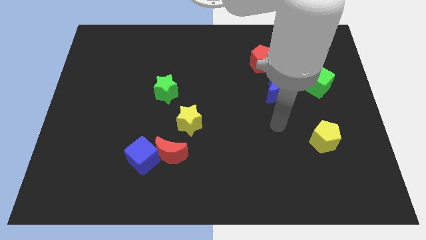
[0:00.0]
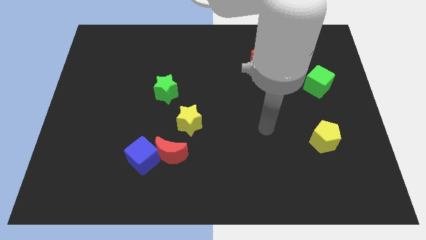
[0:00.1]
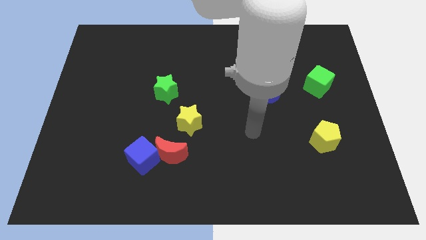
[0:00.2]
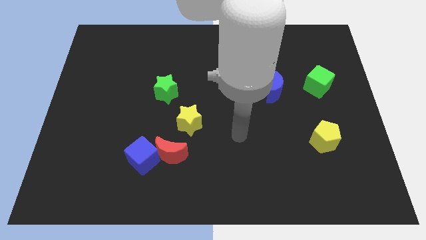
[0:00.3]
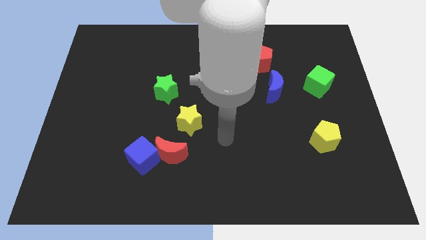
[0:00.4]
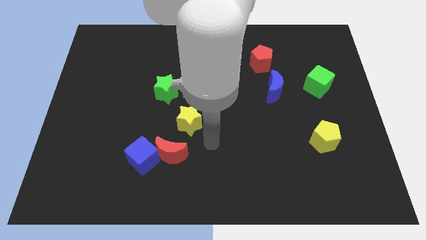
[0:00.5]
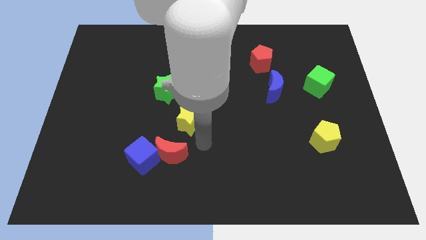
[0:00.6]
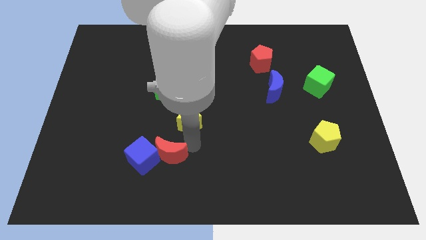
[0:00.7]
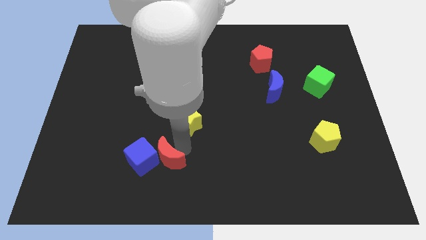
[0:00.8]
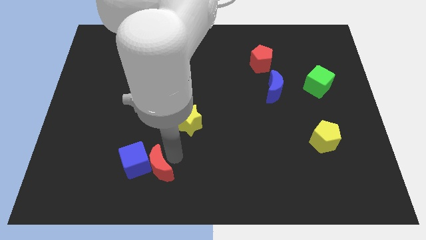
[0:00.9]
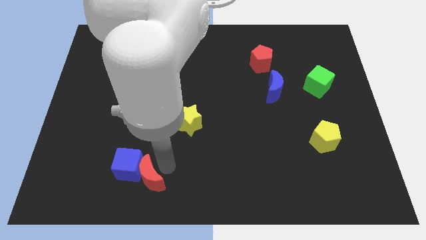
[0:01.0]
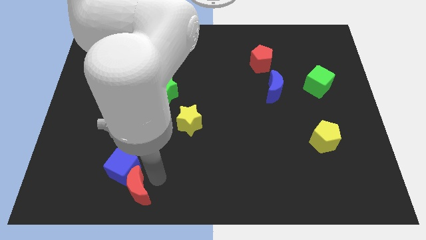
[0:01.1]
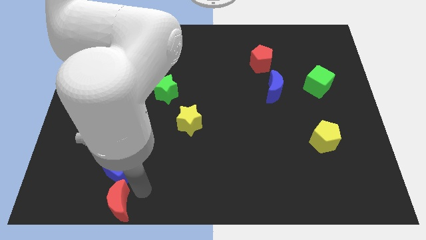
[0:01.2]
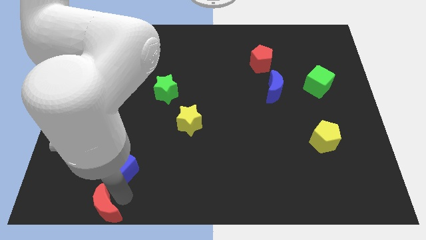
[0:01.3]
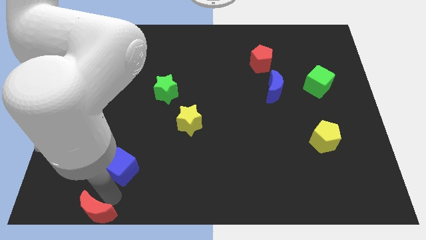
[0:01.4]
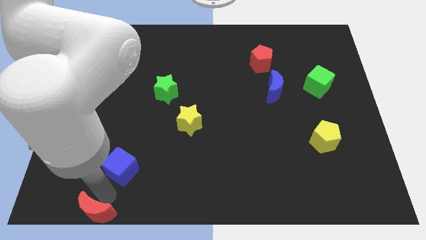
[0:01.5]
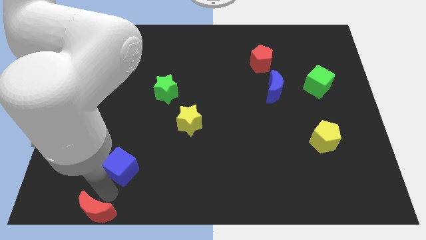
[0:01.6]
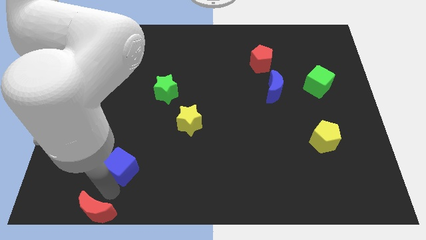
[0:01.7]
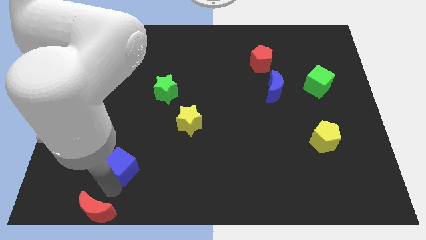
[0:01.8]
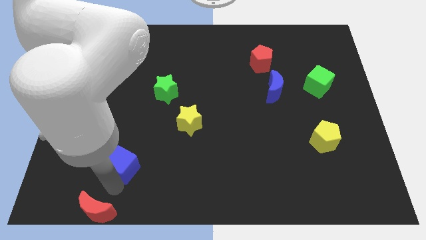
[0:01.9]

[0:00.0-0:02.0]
pull the blue cube apart from the red moon

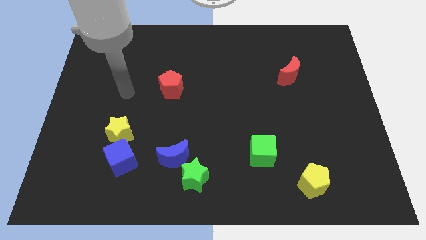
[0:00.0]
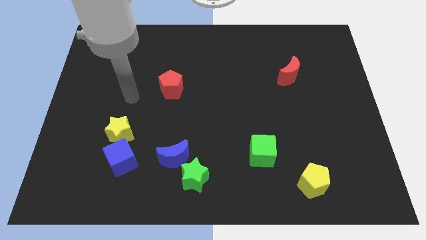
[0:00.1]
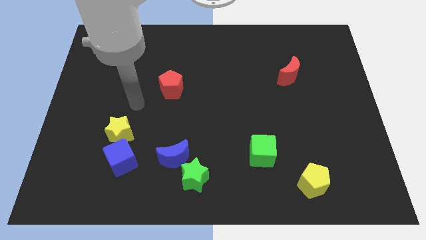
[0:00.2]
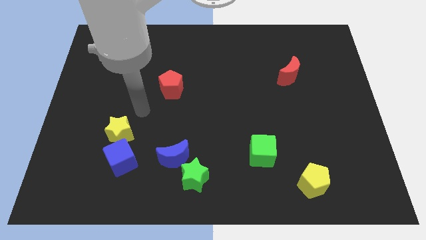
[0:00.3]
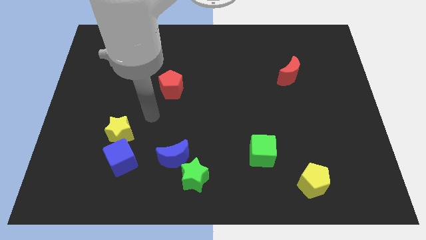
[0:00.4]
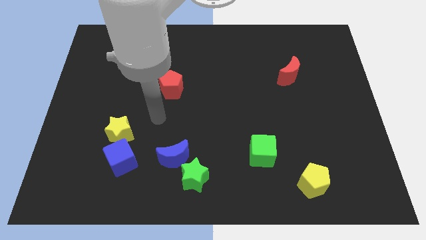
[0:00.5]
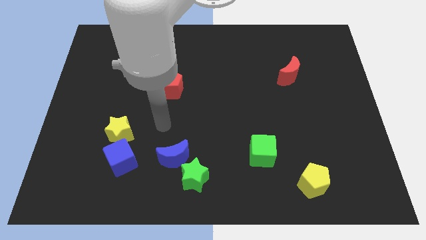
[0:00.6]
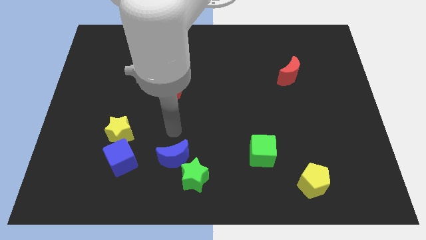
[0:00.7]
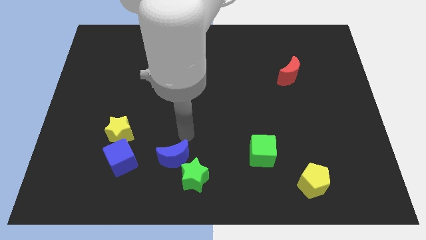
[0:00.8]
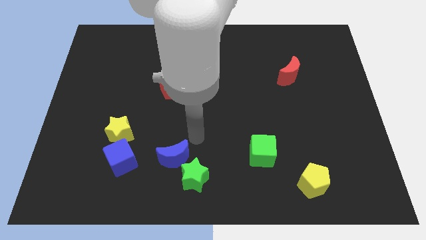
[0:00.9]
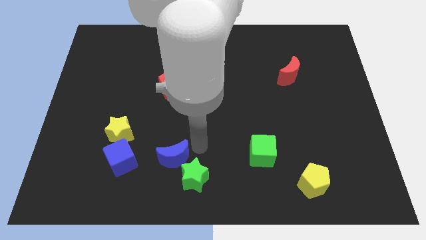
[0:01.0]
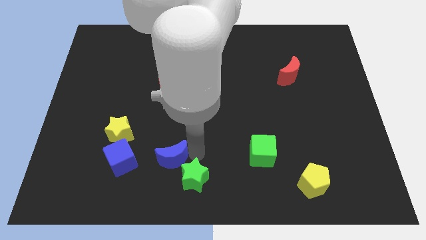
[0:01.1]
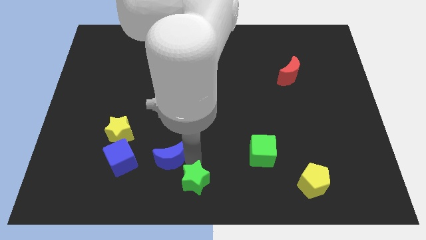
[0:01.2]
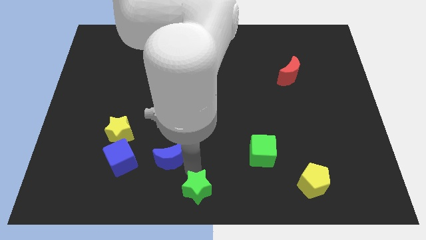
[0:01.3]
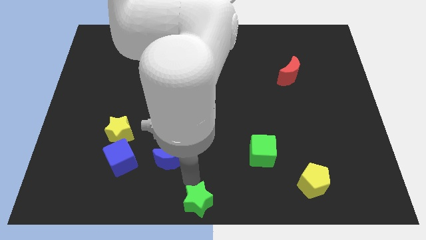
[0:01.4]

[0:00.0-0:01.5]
move the blue moon away from the green star

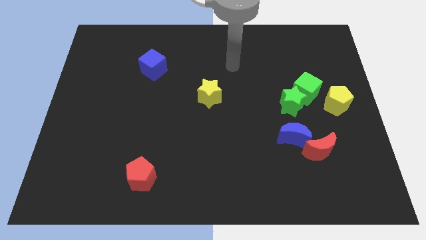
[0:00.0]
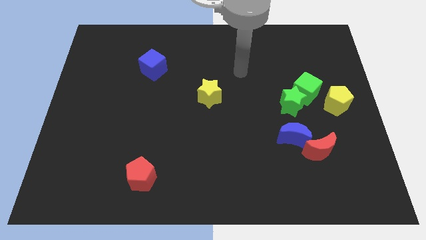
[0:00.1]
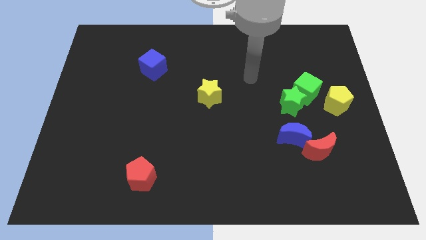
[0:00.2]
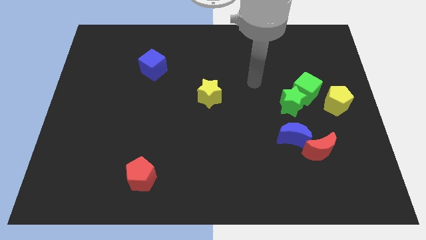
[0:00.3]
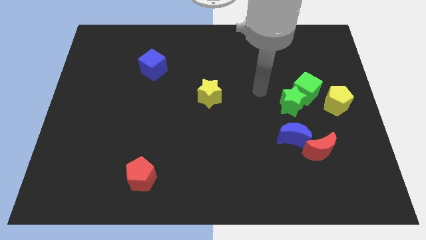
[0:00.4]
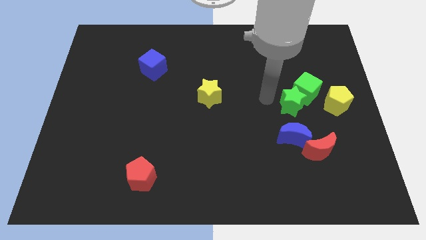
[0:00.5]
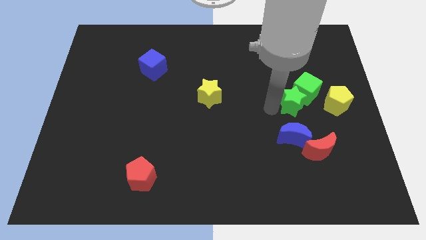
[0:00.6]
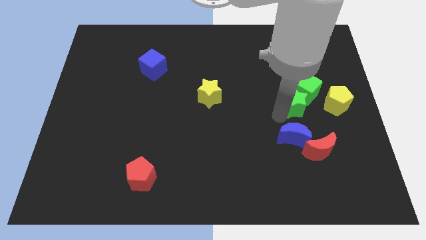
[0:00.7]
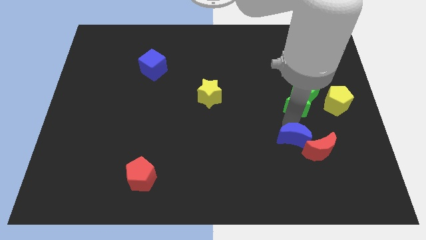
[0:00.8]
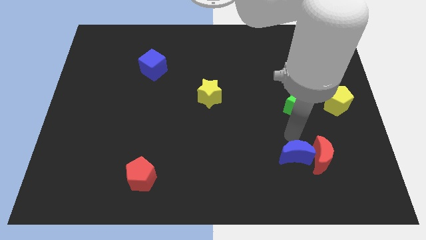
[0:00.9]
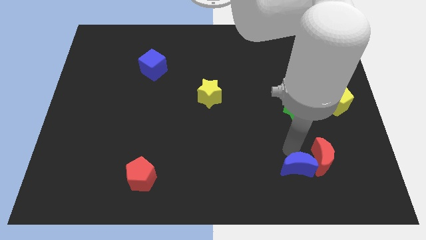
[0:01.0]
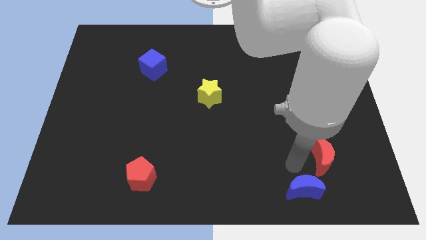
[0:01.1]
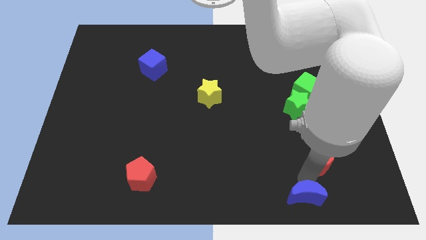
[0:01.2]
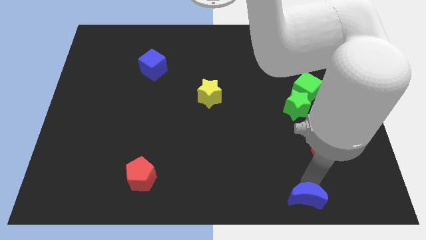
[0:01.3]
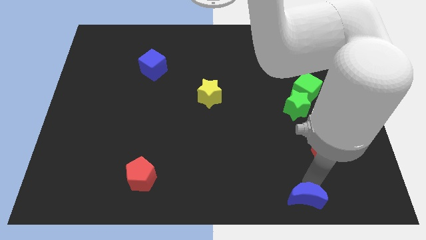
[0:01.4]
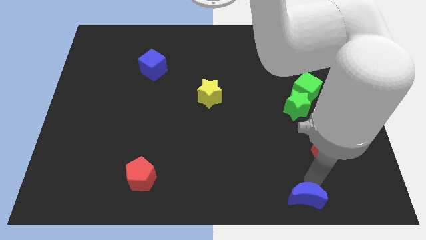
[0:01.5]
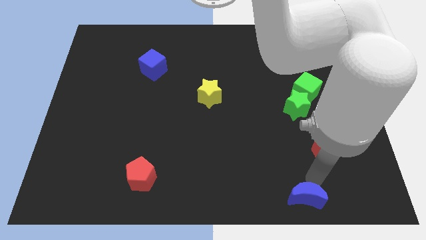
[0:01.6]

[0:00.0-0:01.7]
move the red moon away from the blue moon

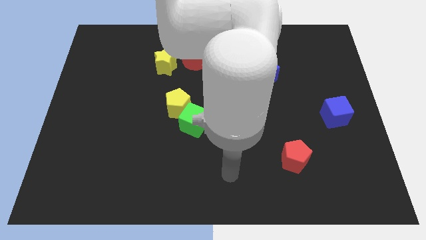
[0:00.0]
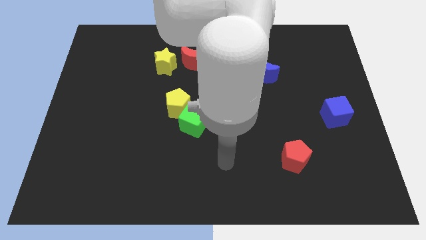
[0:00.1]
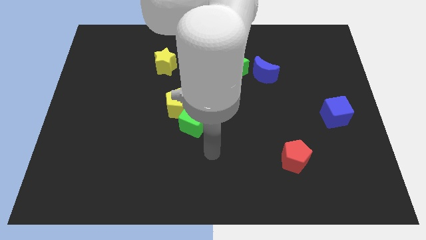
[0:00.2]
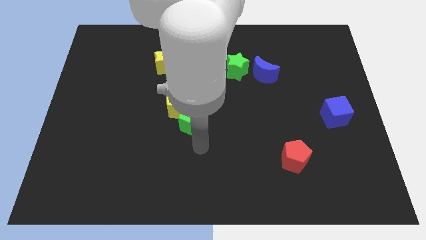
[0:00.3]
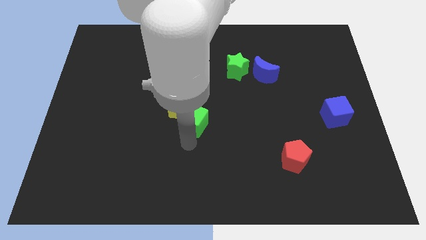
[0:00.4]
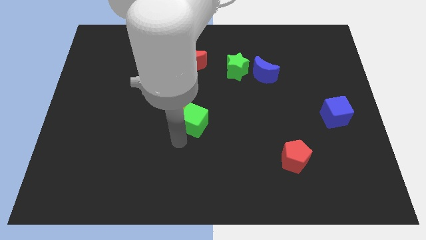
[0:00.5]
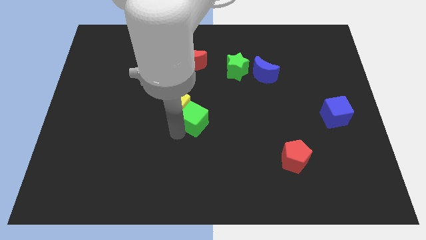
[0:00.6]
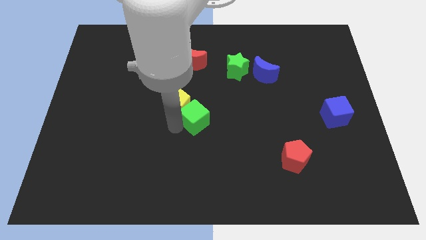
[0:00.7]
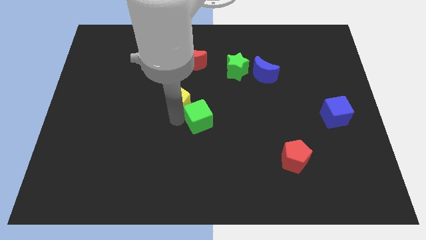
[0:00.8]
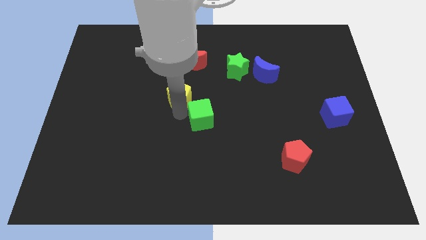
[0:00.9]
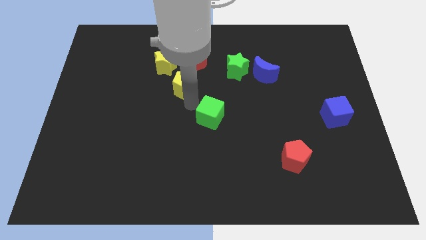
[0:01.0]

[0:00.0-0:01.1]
move the green cube away from the yellow pentagon

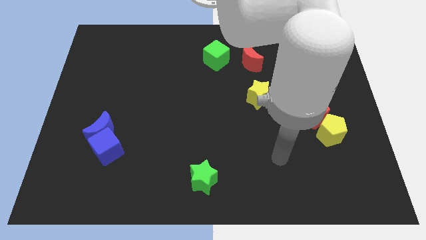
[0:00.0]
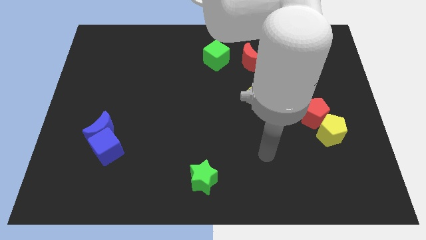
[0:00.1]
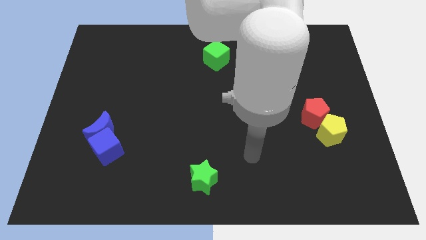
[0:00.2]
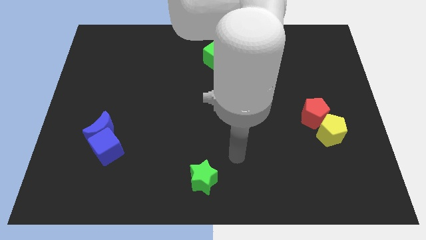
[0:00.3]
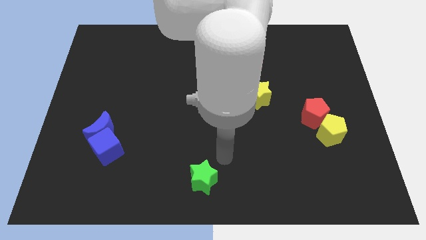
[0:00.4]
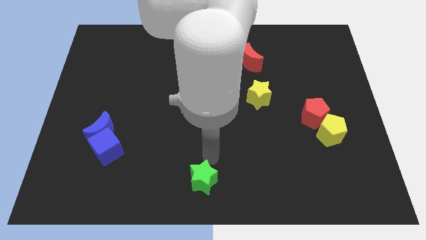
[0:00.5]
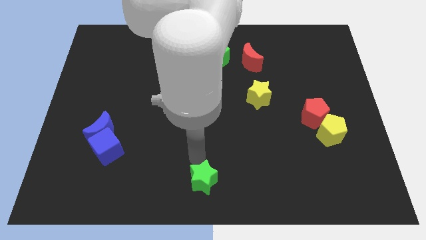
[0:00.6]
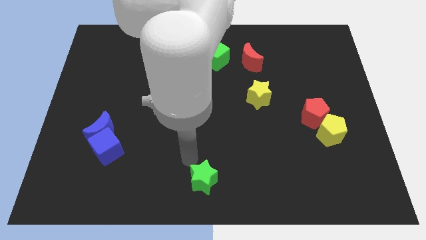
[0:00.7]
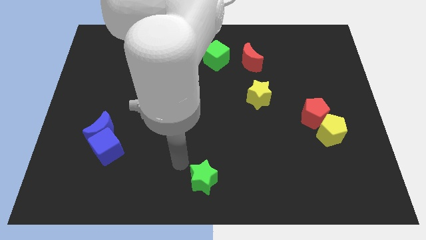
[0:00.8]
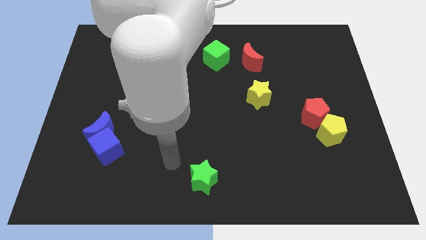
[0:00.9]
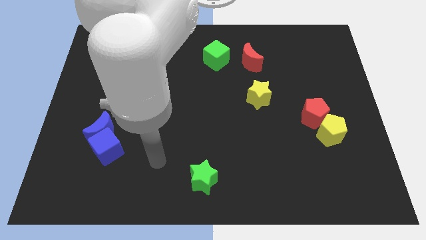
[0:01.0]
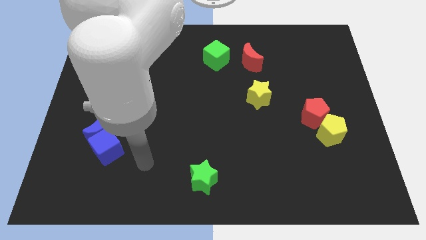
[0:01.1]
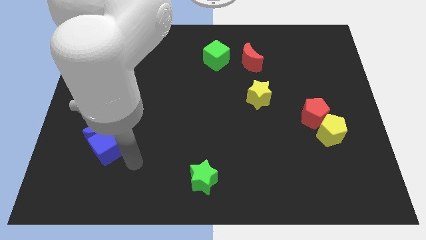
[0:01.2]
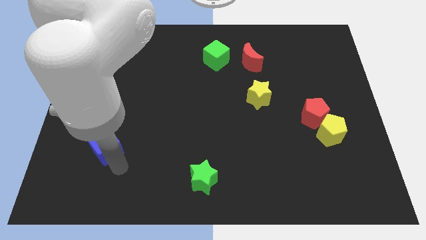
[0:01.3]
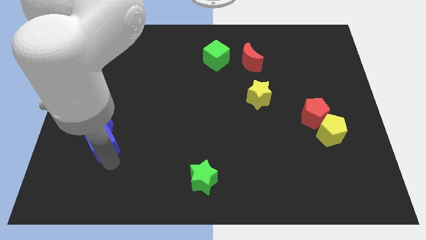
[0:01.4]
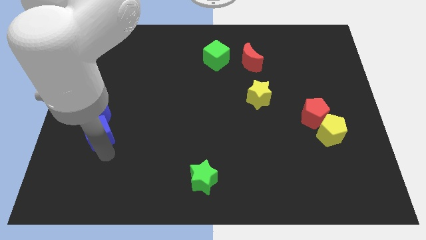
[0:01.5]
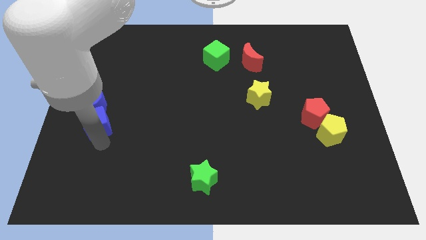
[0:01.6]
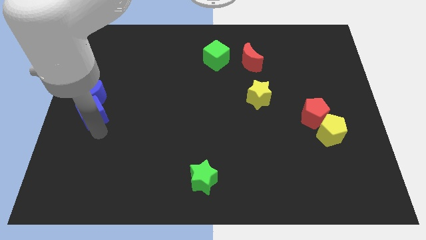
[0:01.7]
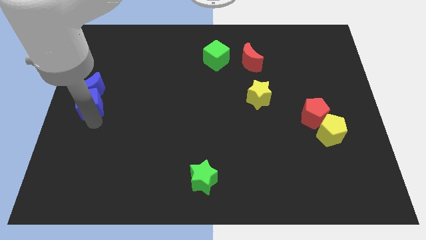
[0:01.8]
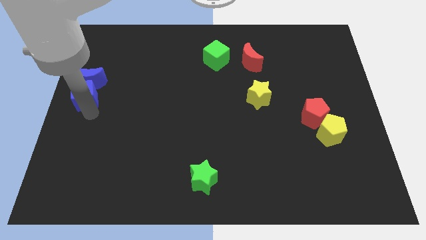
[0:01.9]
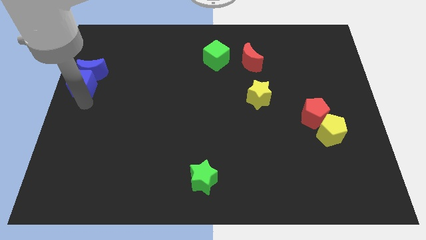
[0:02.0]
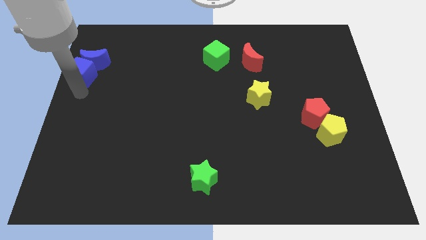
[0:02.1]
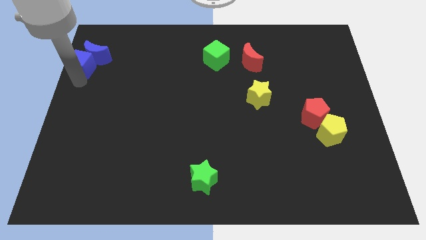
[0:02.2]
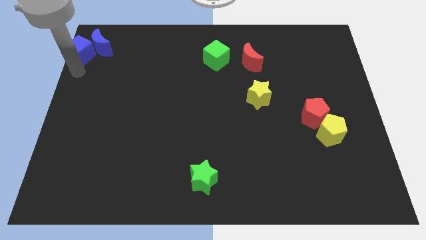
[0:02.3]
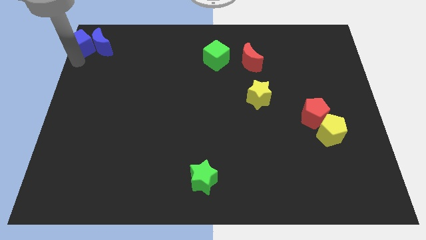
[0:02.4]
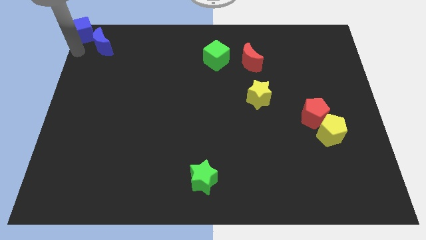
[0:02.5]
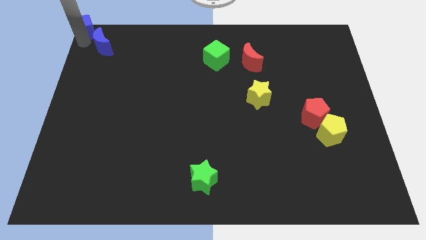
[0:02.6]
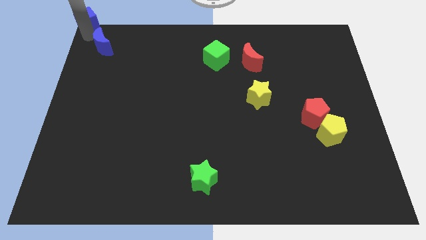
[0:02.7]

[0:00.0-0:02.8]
pull the blue moon apart from the blue cube

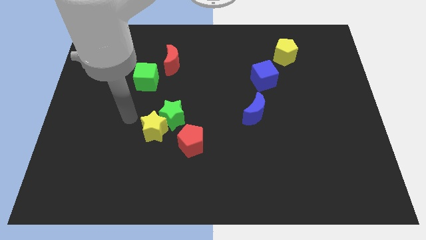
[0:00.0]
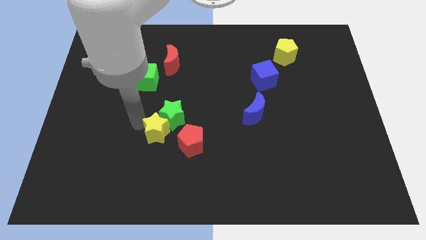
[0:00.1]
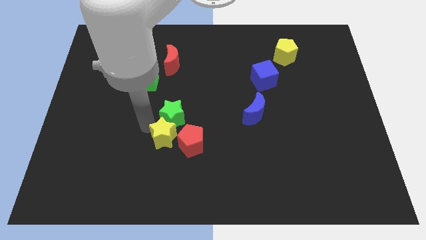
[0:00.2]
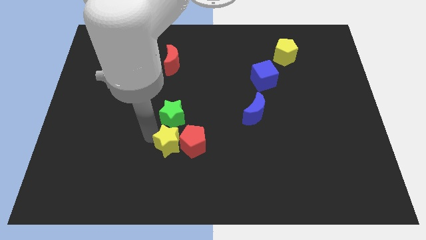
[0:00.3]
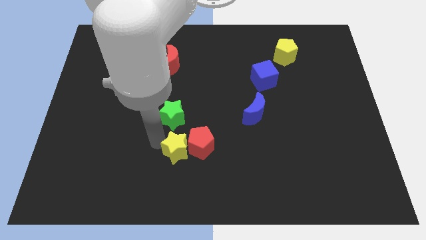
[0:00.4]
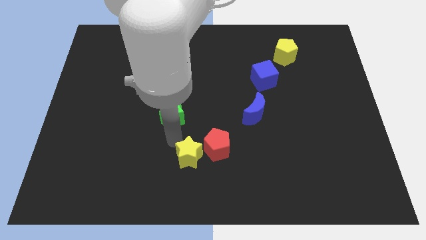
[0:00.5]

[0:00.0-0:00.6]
separate the green star from the yellow star and red pentagon
